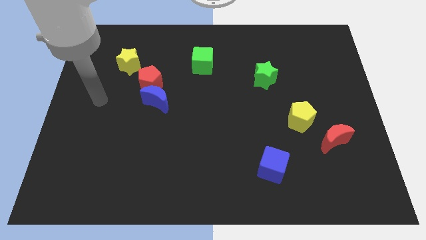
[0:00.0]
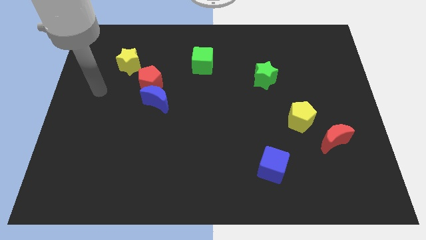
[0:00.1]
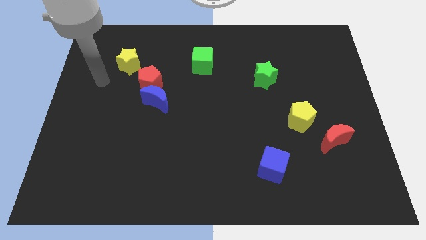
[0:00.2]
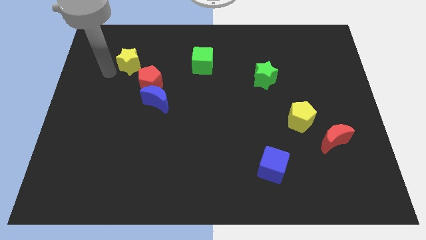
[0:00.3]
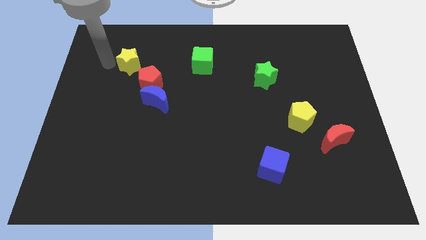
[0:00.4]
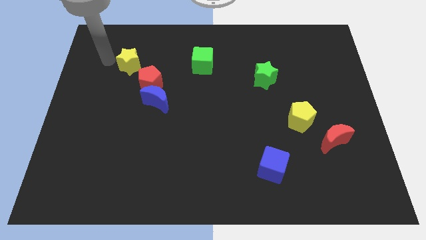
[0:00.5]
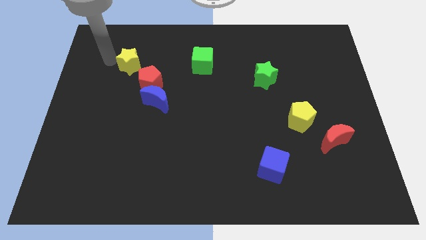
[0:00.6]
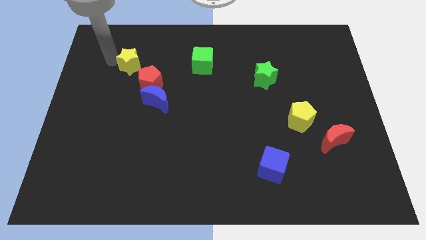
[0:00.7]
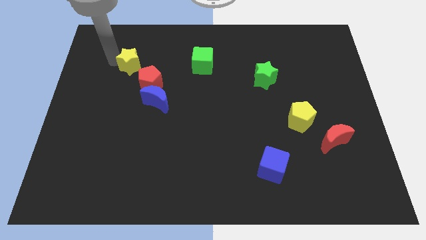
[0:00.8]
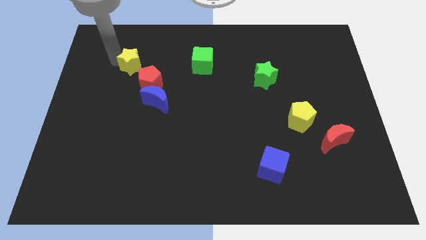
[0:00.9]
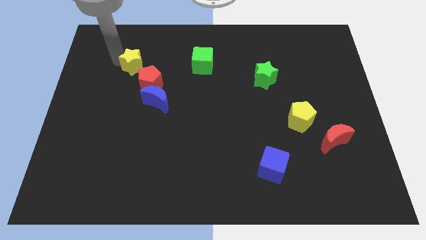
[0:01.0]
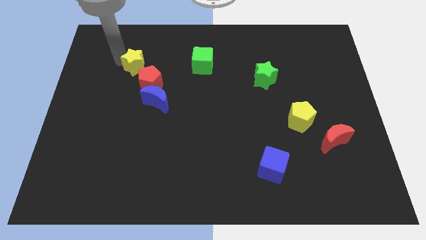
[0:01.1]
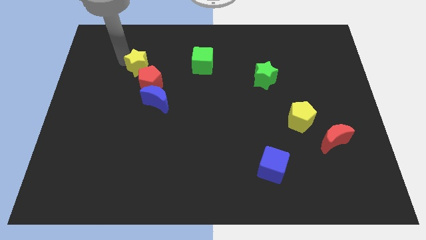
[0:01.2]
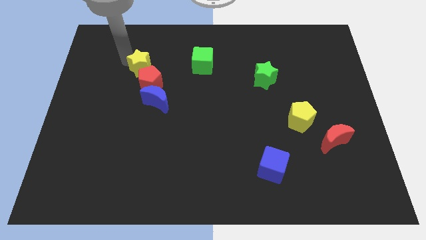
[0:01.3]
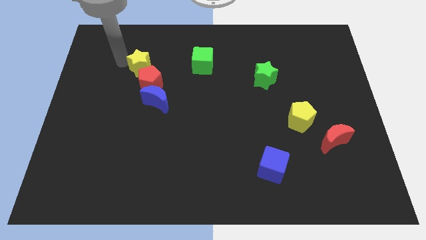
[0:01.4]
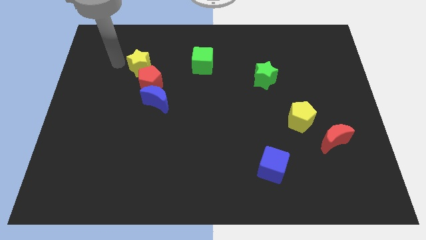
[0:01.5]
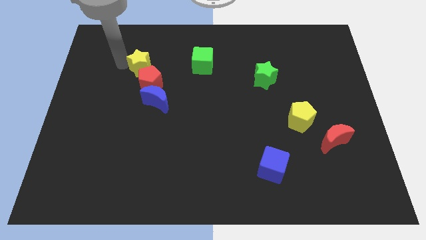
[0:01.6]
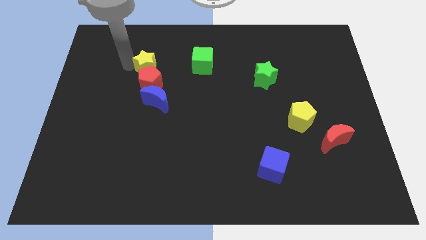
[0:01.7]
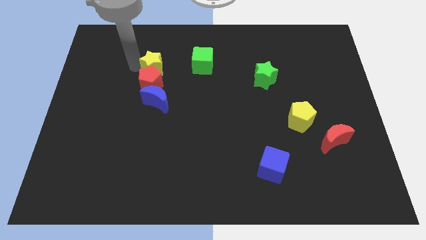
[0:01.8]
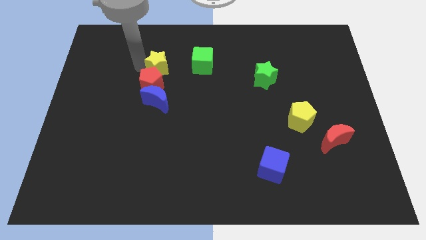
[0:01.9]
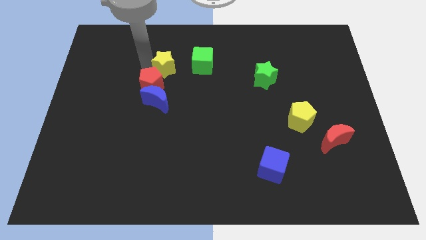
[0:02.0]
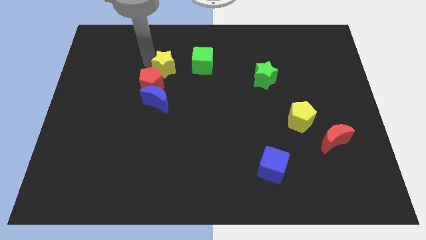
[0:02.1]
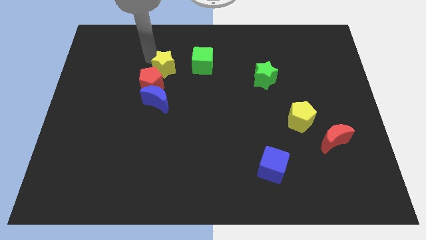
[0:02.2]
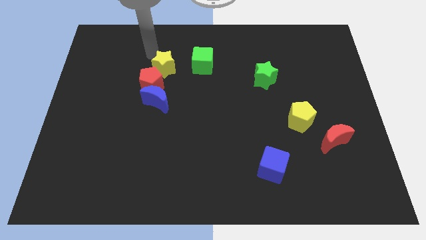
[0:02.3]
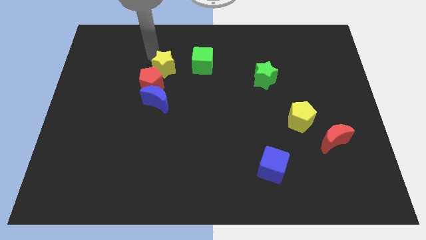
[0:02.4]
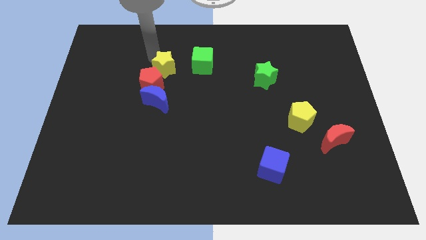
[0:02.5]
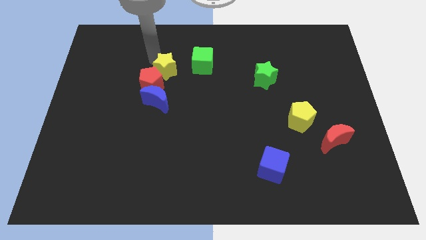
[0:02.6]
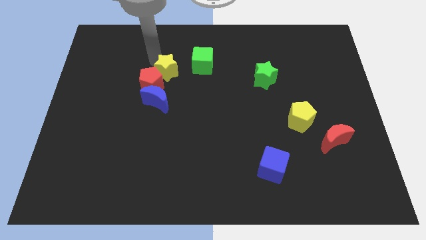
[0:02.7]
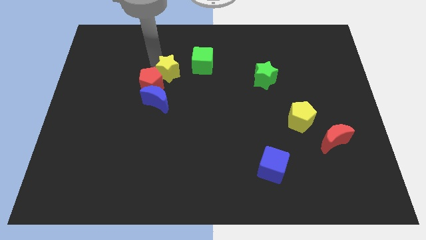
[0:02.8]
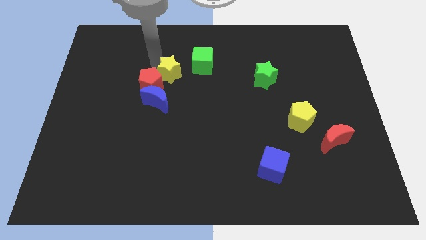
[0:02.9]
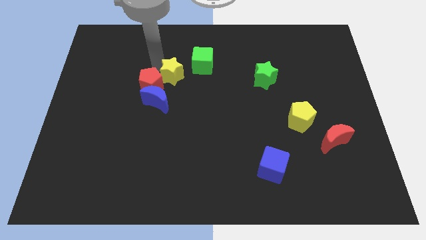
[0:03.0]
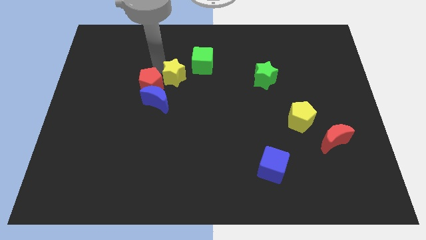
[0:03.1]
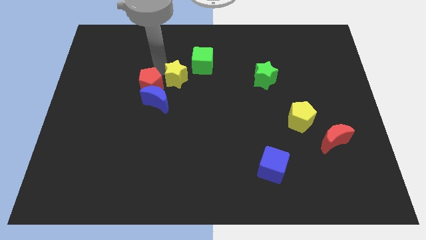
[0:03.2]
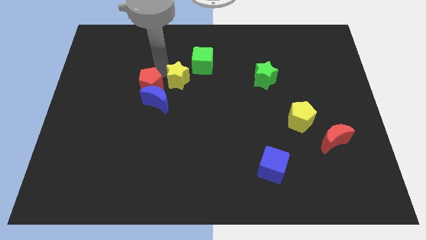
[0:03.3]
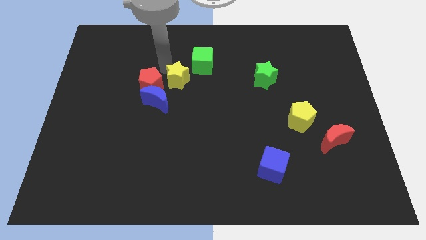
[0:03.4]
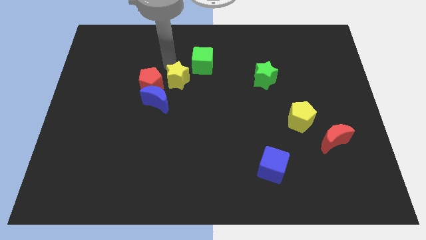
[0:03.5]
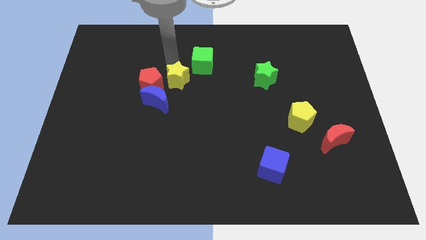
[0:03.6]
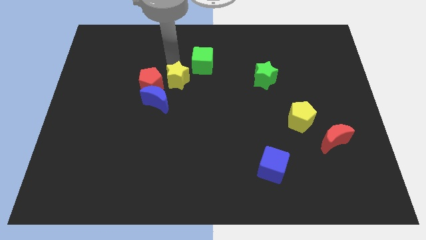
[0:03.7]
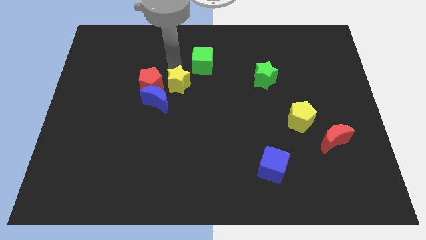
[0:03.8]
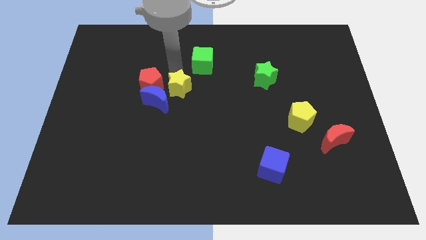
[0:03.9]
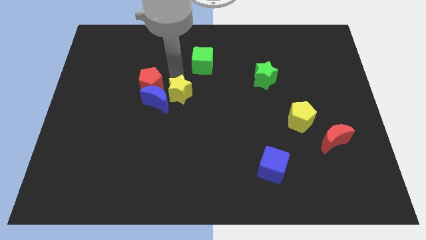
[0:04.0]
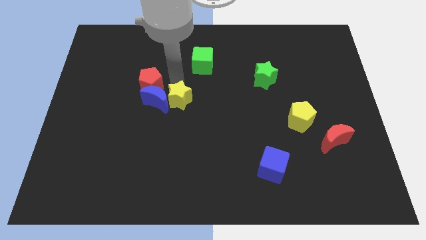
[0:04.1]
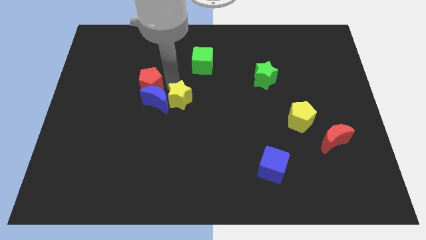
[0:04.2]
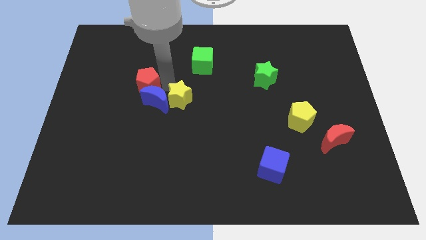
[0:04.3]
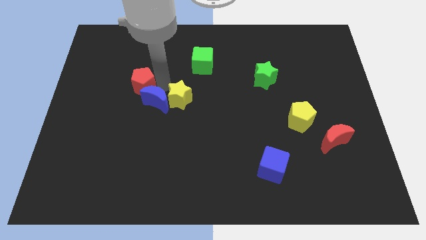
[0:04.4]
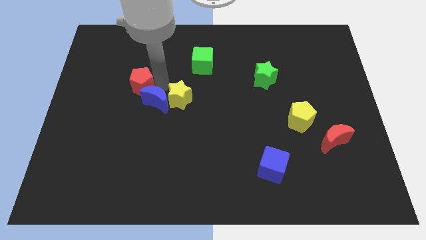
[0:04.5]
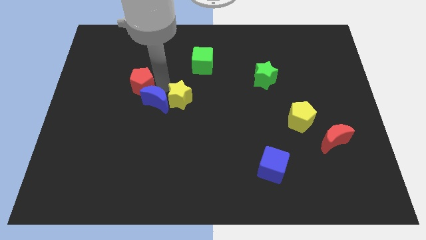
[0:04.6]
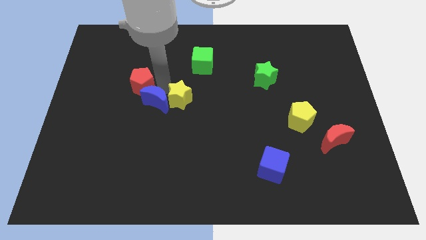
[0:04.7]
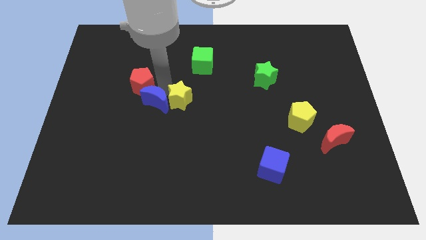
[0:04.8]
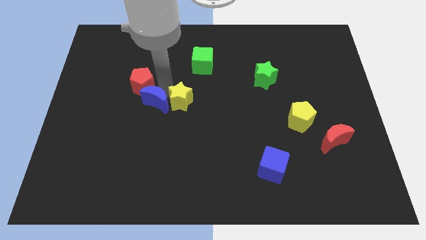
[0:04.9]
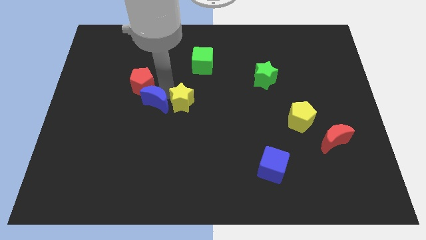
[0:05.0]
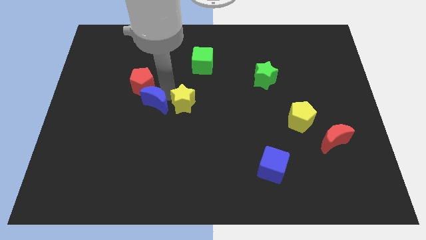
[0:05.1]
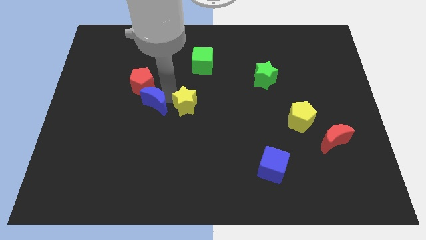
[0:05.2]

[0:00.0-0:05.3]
move the yellow star down and to the right diagonally

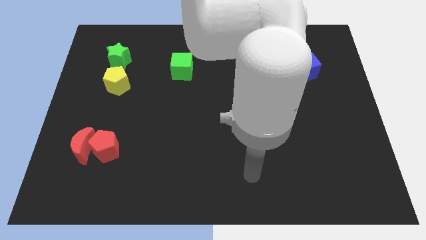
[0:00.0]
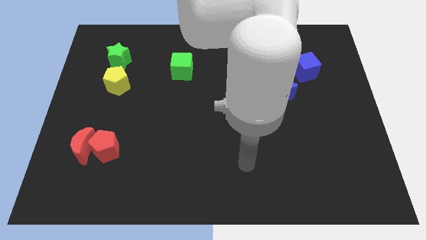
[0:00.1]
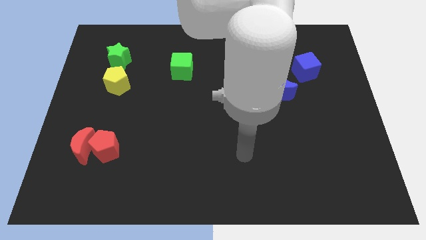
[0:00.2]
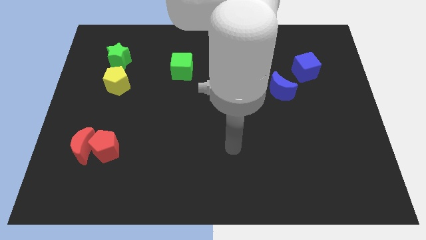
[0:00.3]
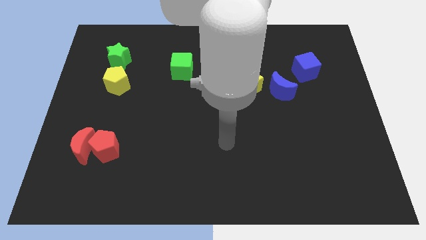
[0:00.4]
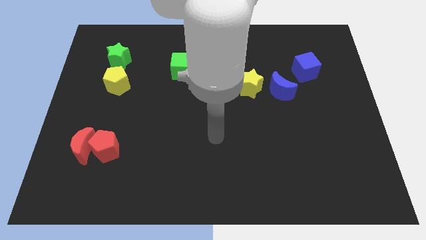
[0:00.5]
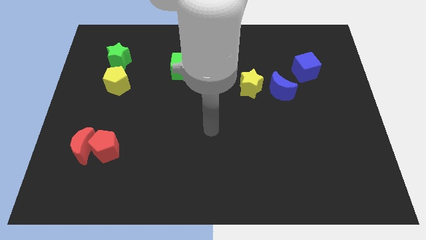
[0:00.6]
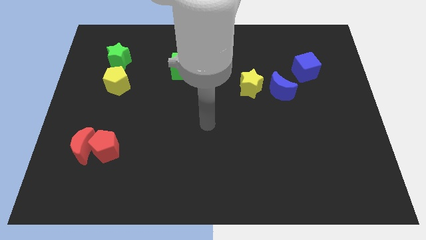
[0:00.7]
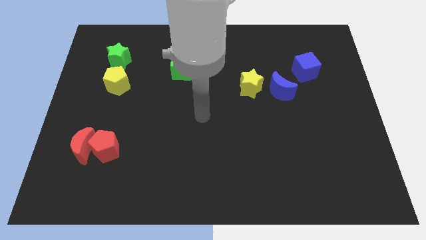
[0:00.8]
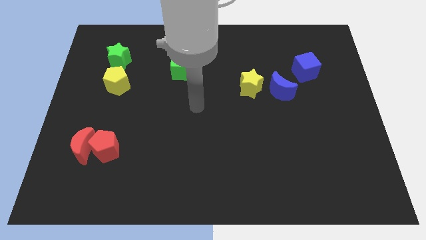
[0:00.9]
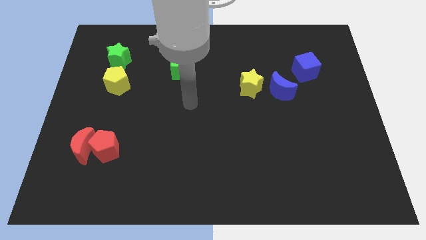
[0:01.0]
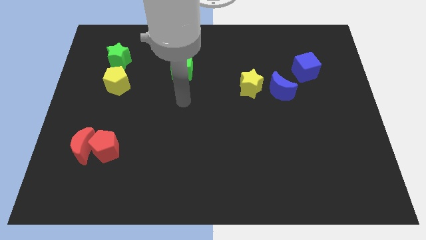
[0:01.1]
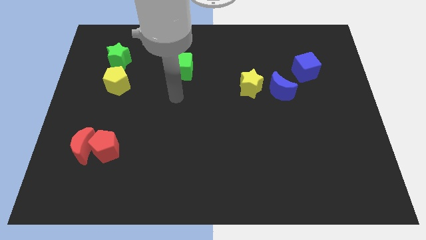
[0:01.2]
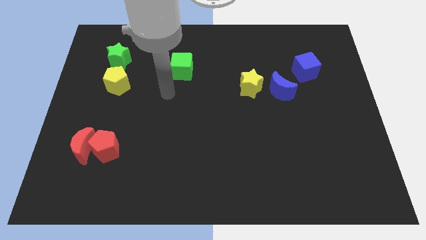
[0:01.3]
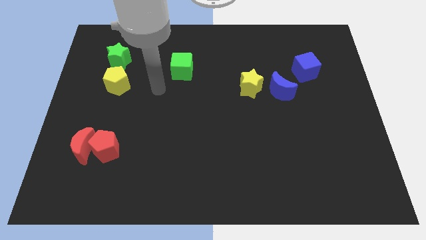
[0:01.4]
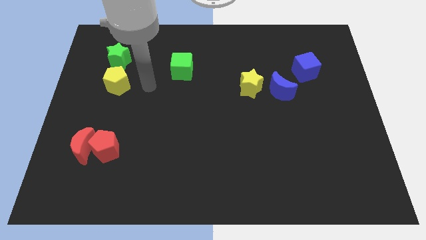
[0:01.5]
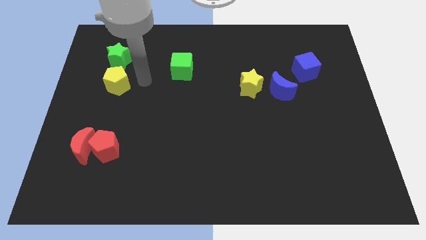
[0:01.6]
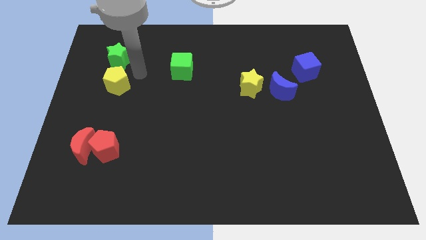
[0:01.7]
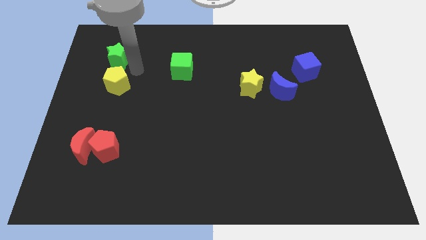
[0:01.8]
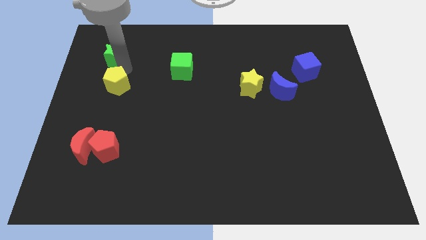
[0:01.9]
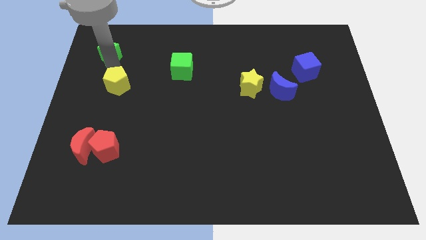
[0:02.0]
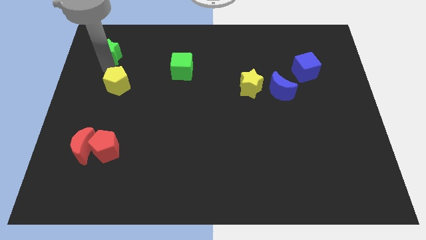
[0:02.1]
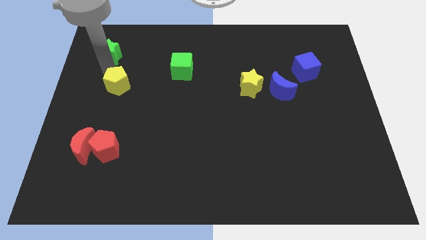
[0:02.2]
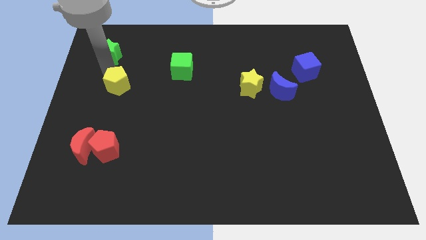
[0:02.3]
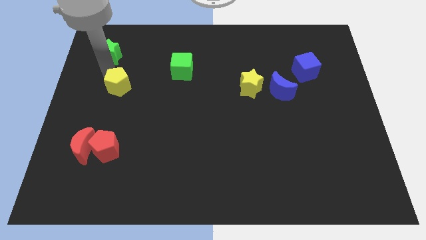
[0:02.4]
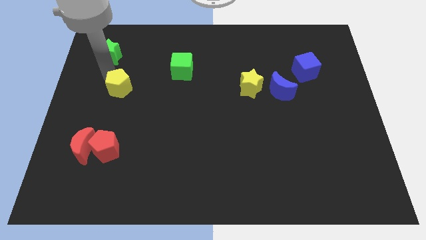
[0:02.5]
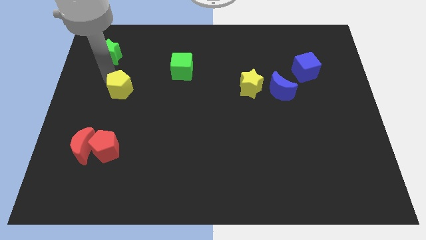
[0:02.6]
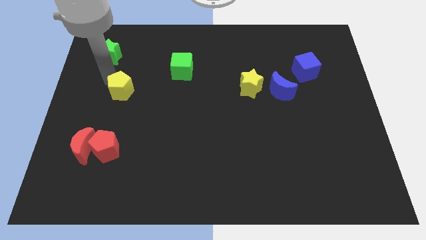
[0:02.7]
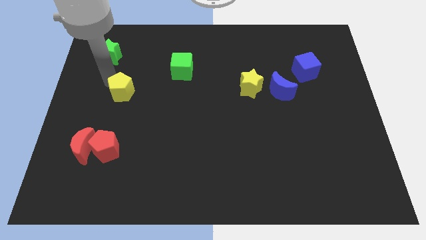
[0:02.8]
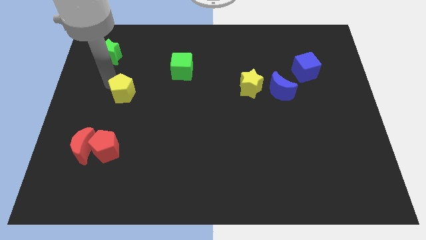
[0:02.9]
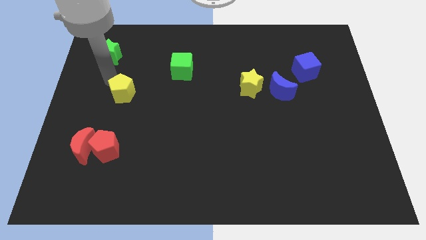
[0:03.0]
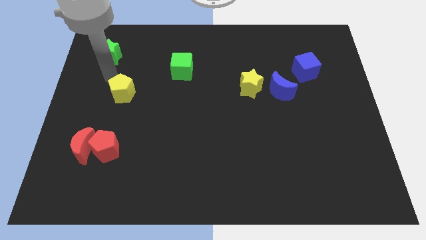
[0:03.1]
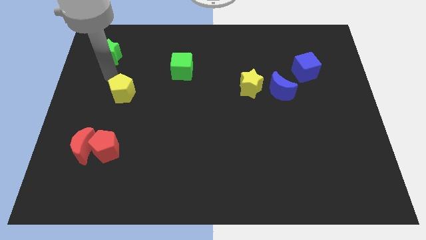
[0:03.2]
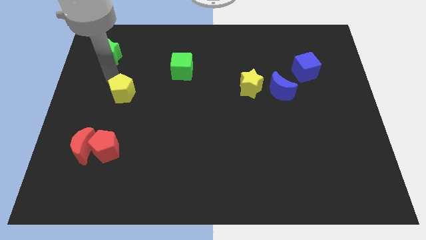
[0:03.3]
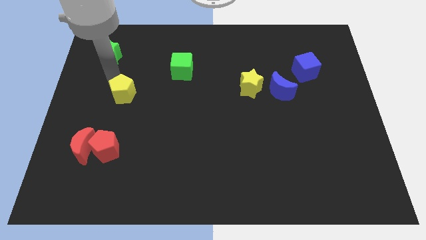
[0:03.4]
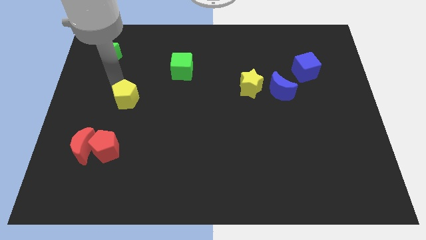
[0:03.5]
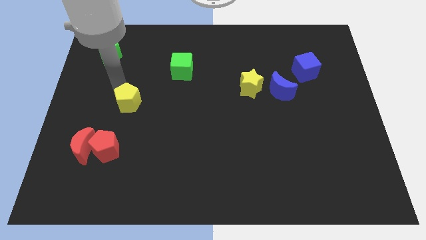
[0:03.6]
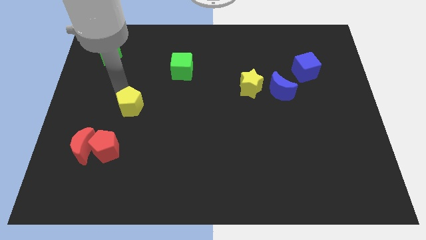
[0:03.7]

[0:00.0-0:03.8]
push the yellow pentagon downwards and to the right diagonally a little
